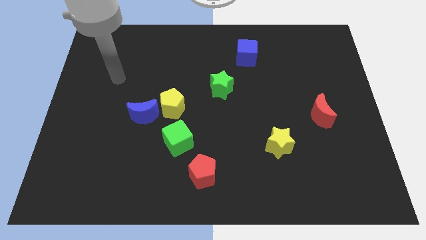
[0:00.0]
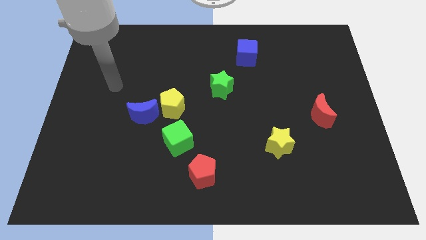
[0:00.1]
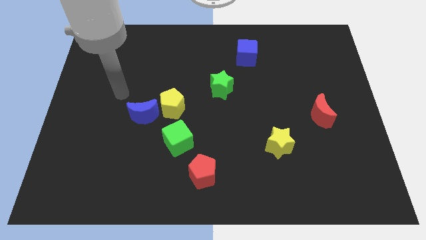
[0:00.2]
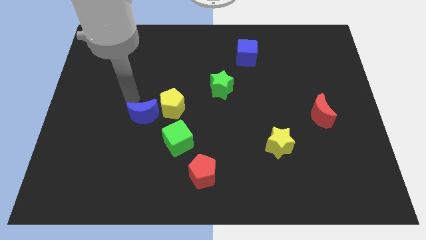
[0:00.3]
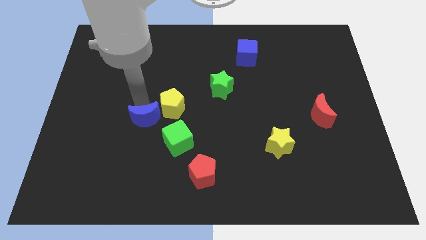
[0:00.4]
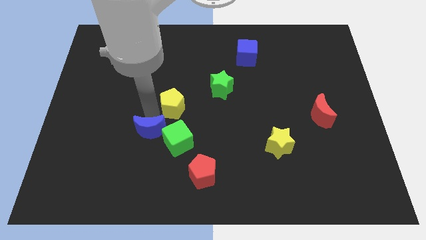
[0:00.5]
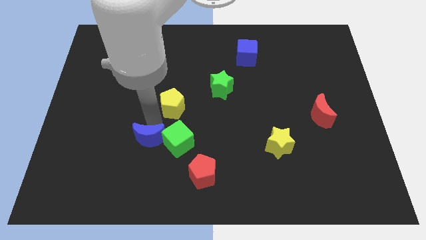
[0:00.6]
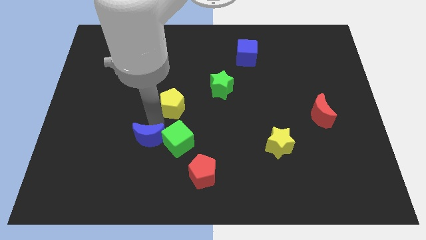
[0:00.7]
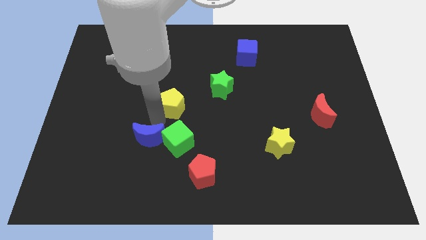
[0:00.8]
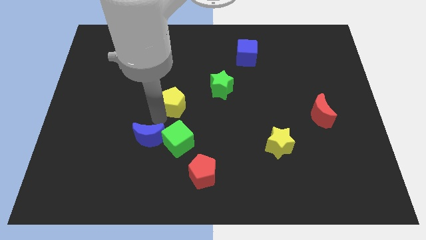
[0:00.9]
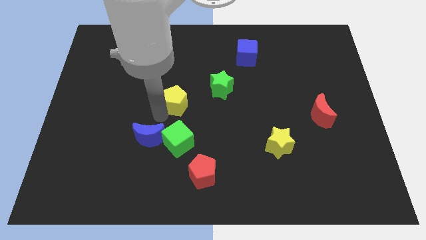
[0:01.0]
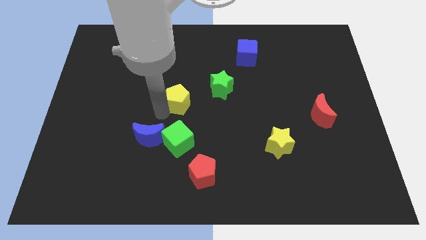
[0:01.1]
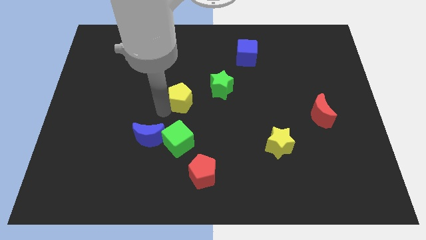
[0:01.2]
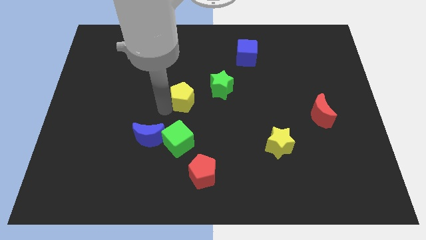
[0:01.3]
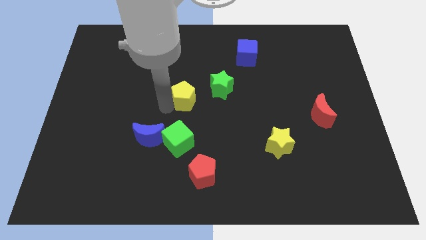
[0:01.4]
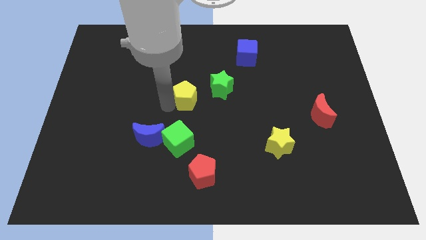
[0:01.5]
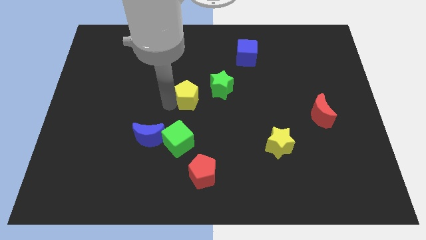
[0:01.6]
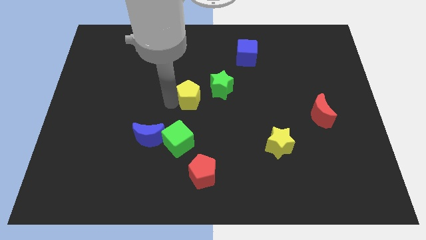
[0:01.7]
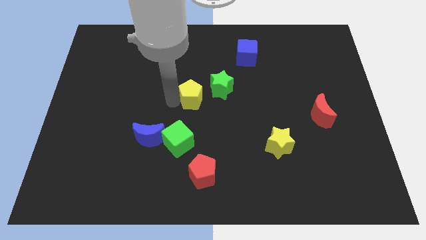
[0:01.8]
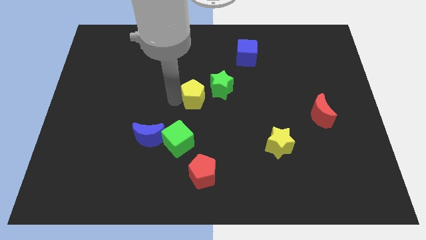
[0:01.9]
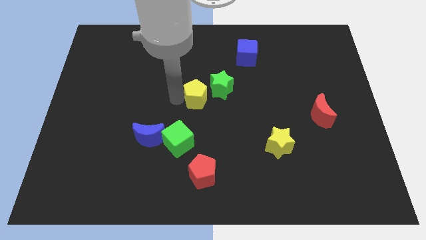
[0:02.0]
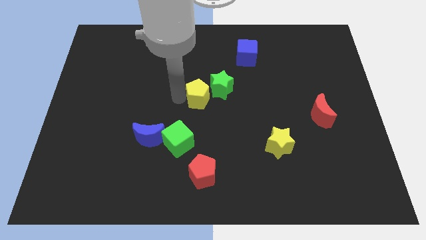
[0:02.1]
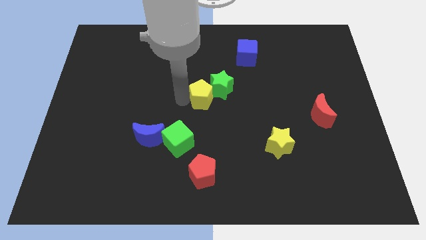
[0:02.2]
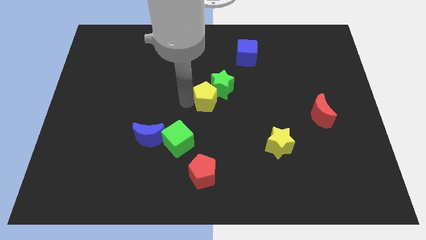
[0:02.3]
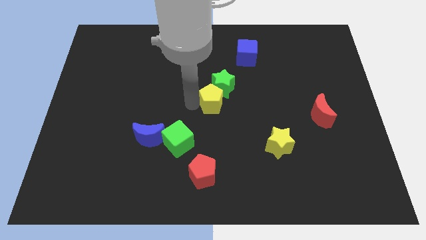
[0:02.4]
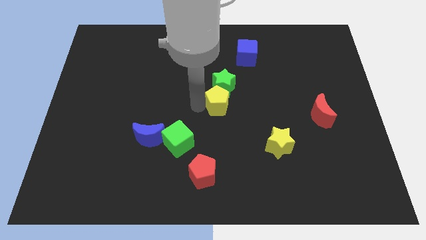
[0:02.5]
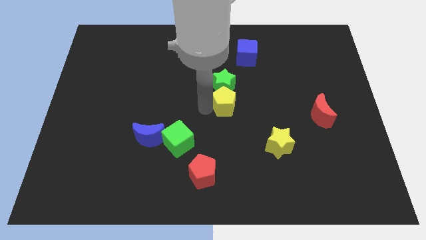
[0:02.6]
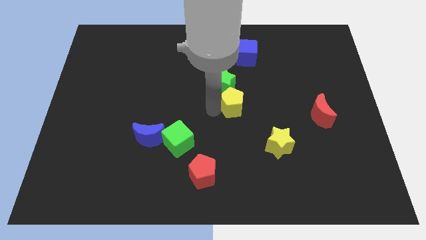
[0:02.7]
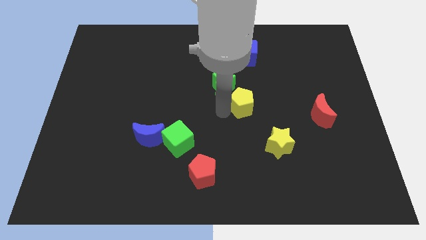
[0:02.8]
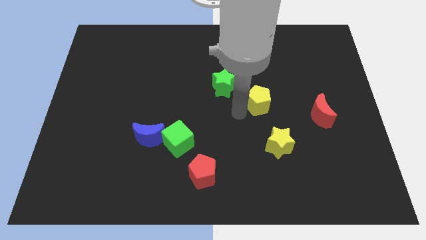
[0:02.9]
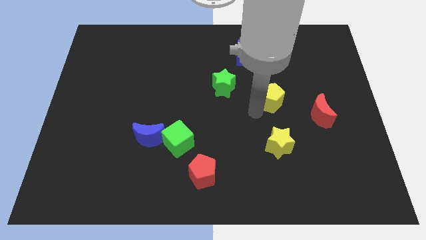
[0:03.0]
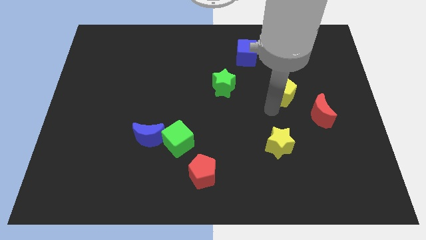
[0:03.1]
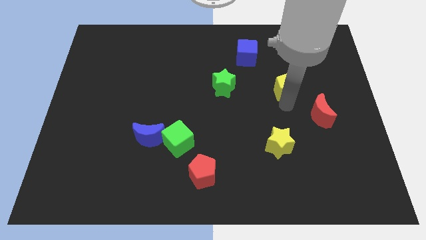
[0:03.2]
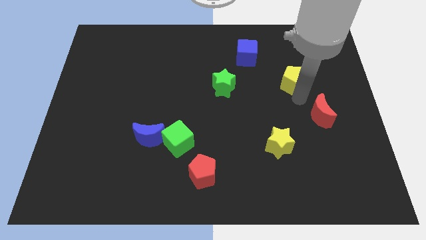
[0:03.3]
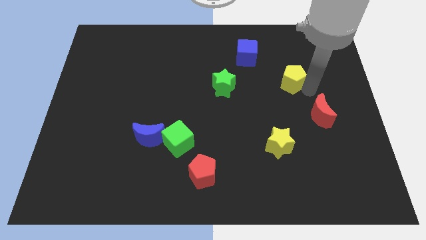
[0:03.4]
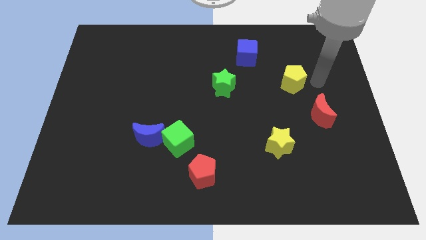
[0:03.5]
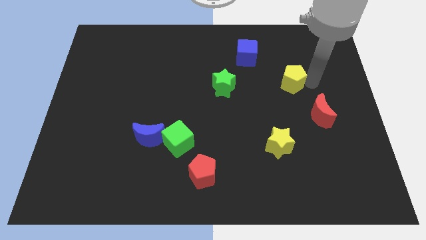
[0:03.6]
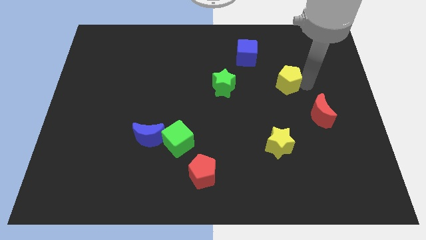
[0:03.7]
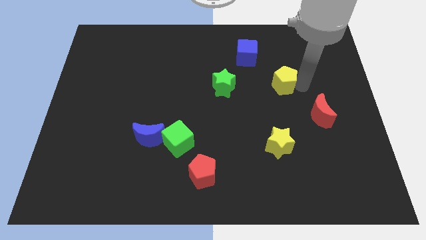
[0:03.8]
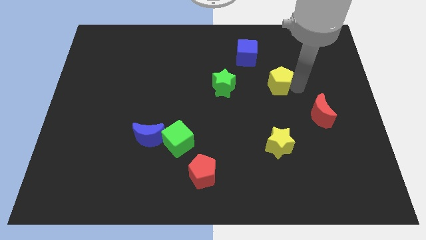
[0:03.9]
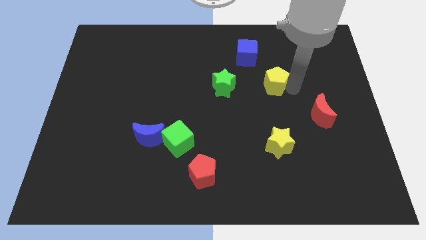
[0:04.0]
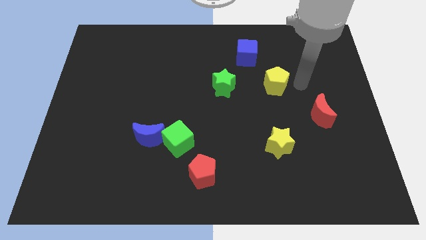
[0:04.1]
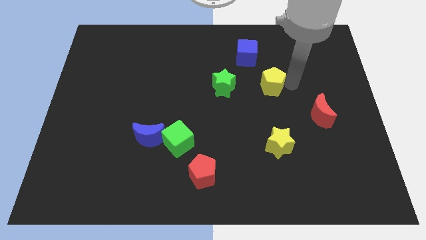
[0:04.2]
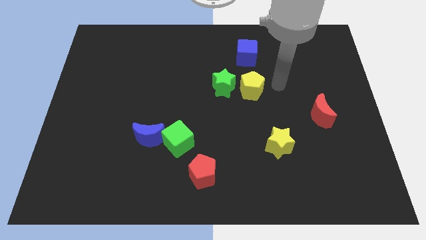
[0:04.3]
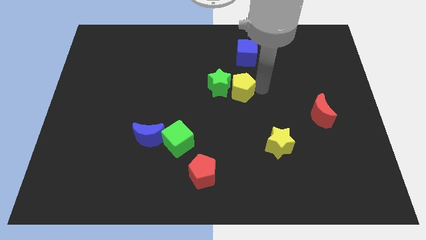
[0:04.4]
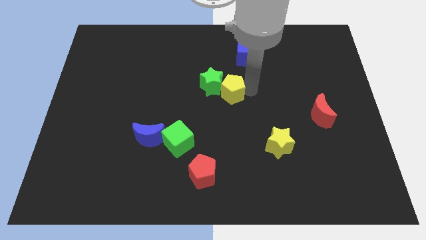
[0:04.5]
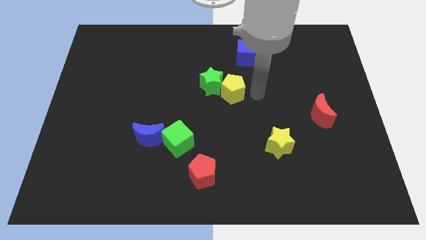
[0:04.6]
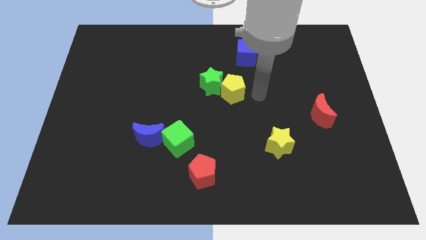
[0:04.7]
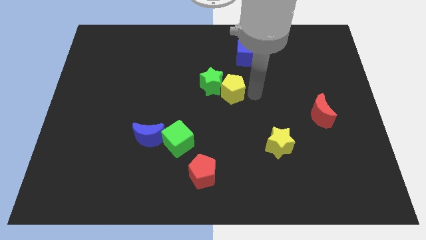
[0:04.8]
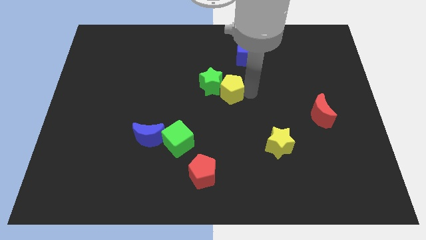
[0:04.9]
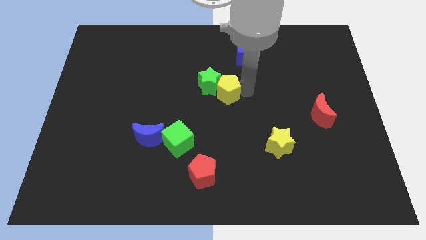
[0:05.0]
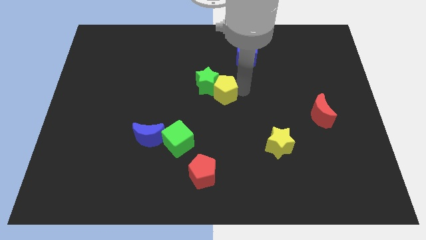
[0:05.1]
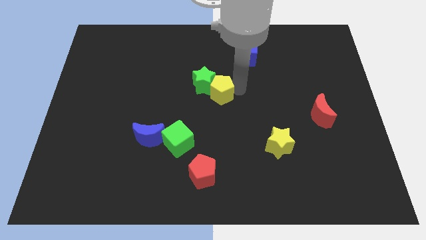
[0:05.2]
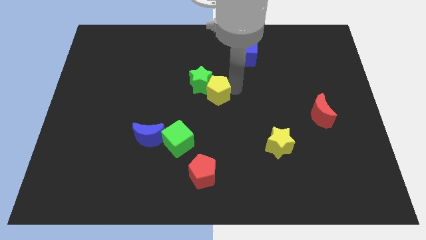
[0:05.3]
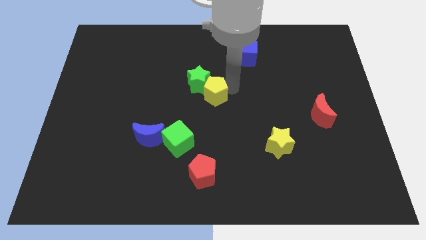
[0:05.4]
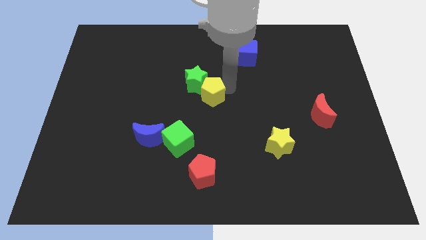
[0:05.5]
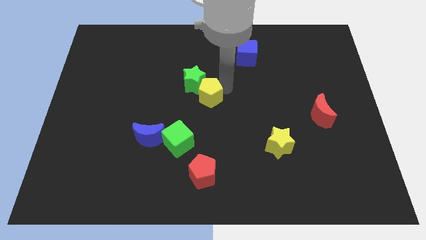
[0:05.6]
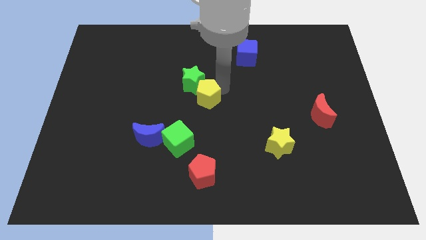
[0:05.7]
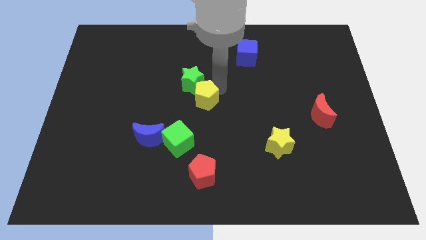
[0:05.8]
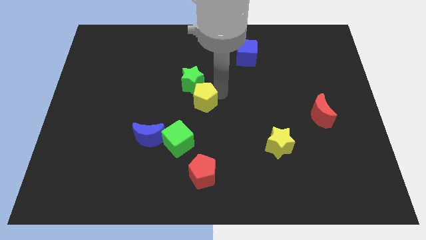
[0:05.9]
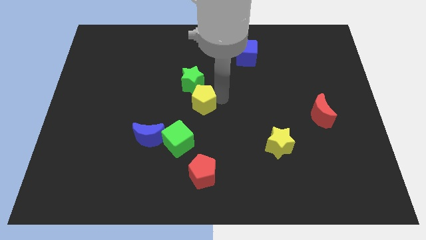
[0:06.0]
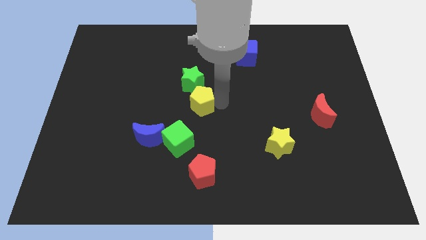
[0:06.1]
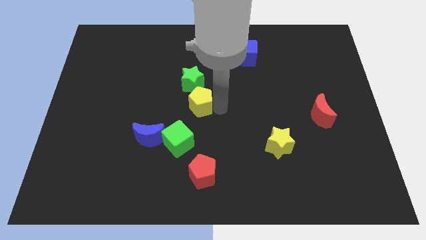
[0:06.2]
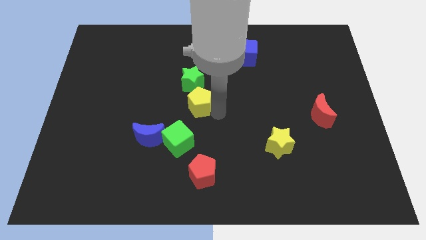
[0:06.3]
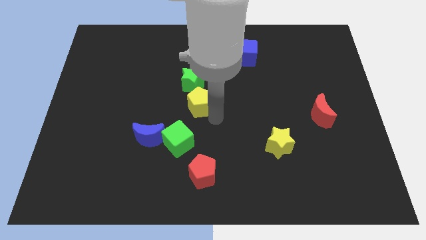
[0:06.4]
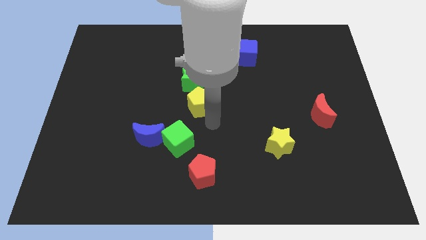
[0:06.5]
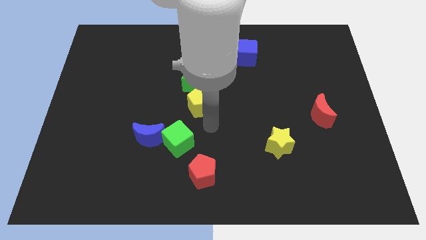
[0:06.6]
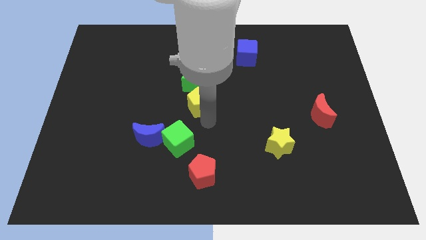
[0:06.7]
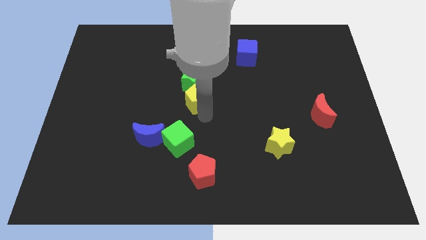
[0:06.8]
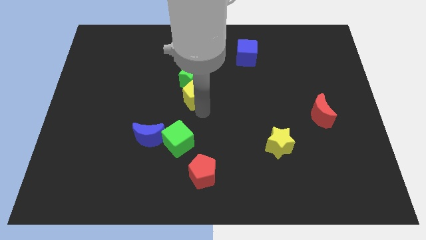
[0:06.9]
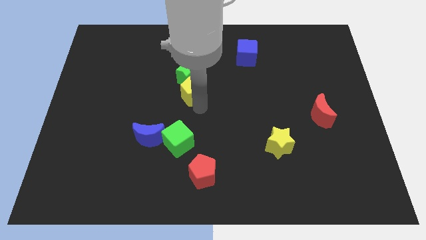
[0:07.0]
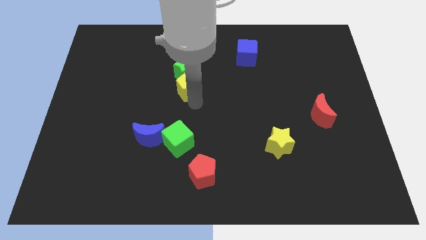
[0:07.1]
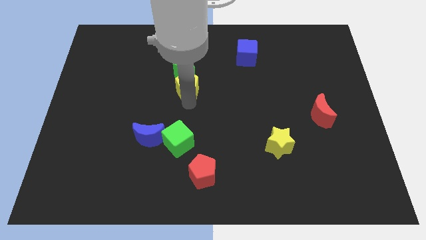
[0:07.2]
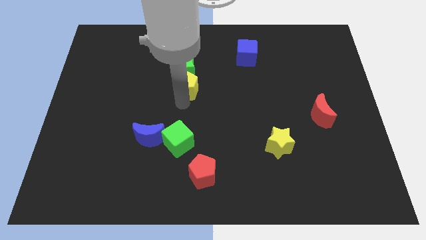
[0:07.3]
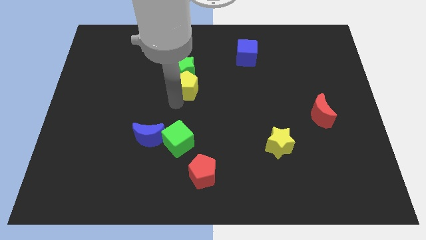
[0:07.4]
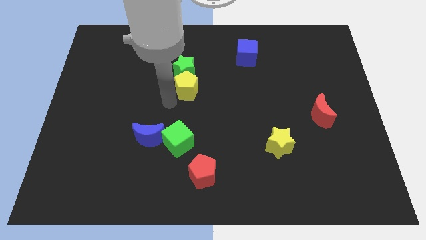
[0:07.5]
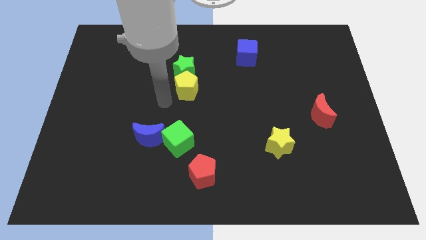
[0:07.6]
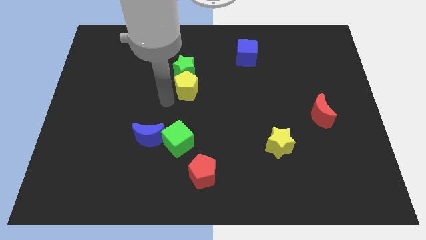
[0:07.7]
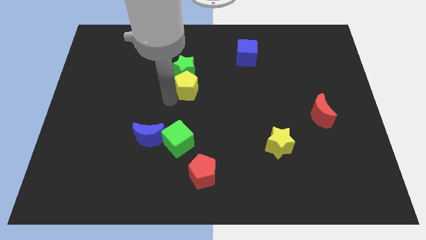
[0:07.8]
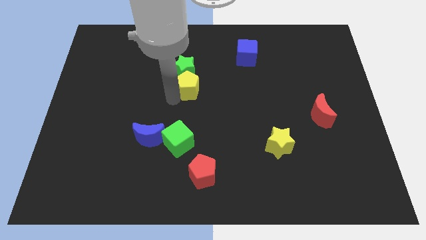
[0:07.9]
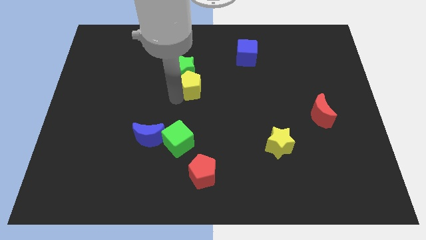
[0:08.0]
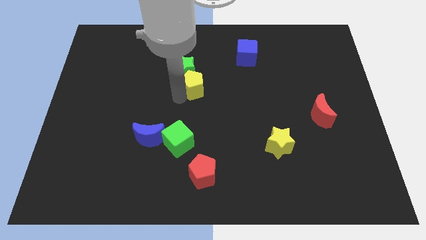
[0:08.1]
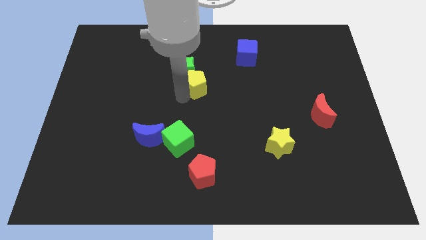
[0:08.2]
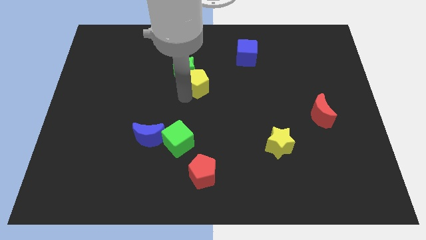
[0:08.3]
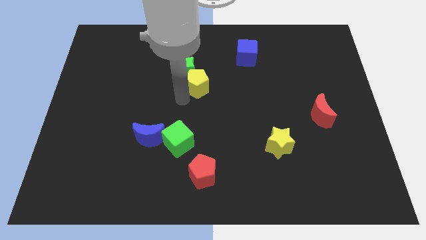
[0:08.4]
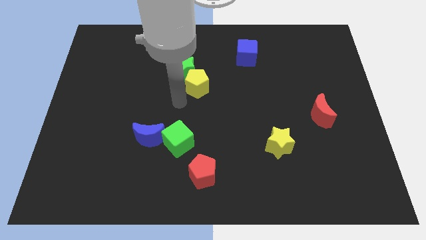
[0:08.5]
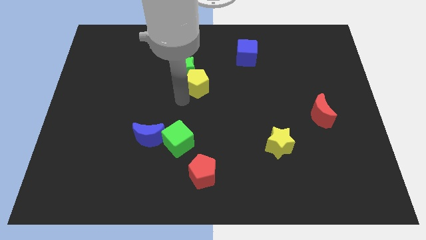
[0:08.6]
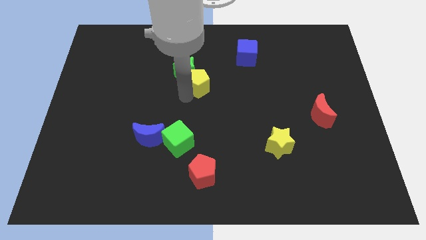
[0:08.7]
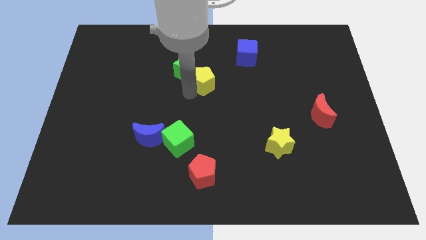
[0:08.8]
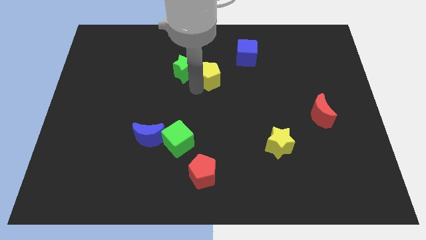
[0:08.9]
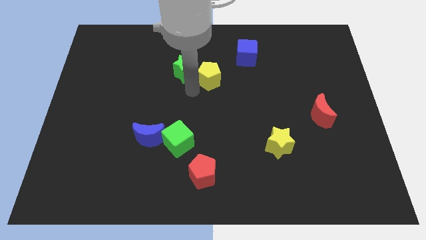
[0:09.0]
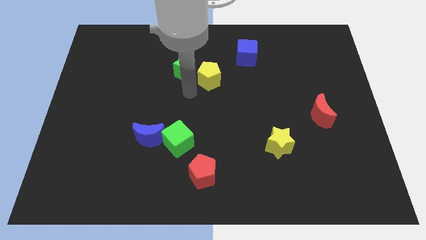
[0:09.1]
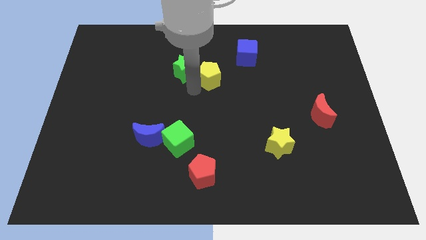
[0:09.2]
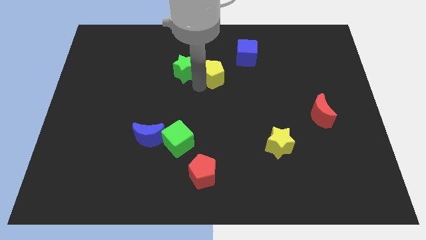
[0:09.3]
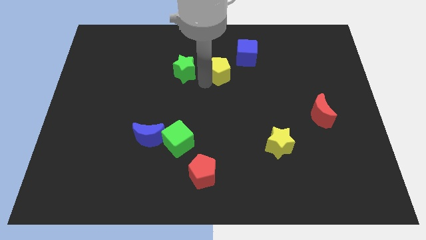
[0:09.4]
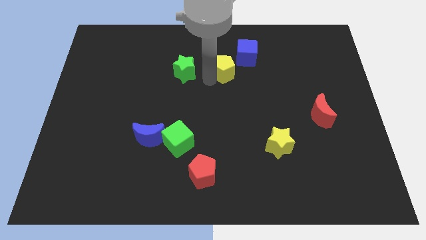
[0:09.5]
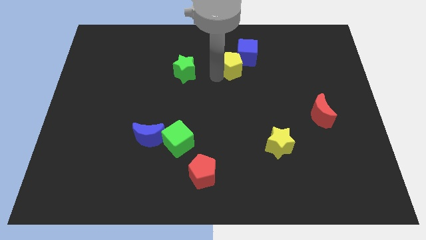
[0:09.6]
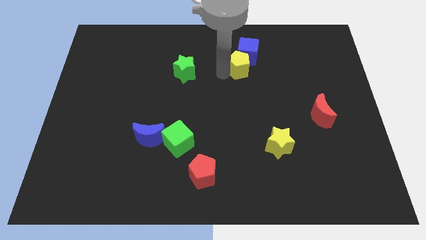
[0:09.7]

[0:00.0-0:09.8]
slide the yellow pentagon next to the blue cube
